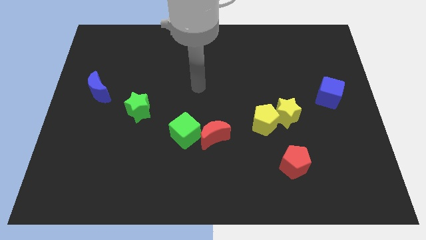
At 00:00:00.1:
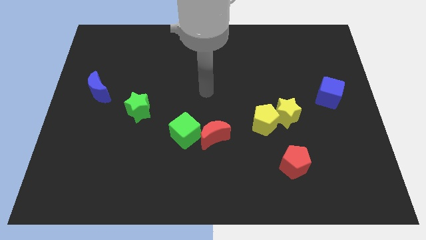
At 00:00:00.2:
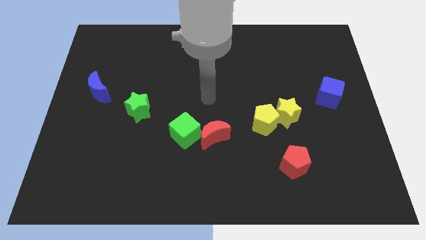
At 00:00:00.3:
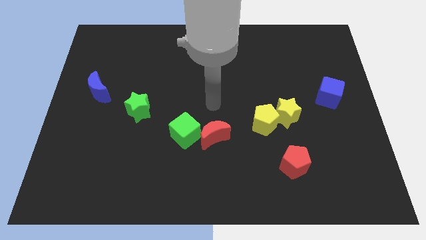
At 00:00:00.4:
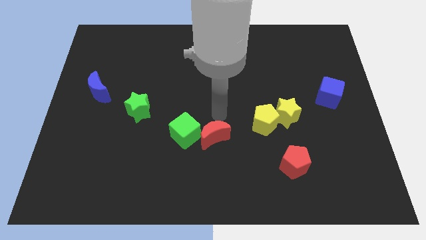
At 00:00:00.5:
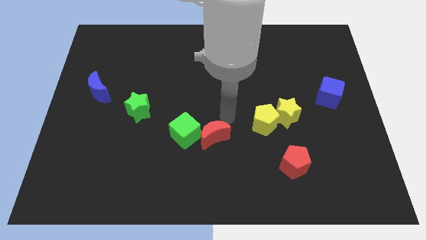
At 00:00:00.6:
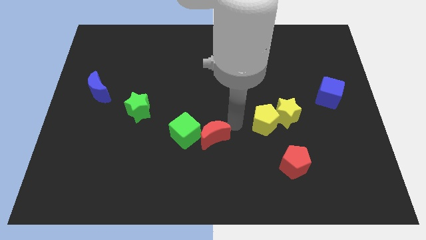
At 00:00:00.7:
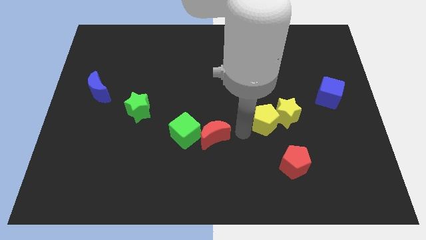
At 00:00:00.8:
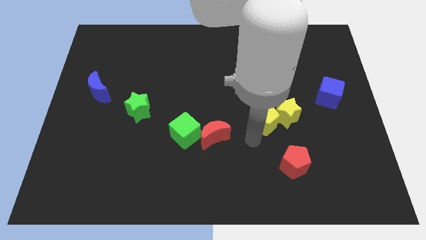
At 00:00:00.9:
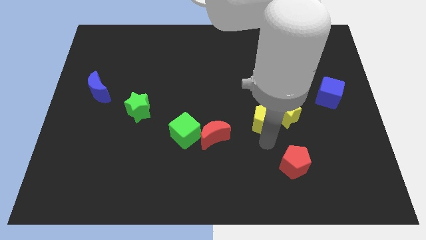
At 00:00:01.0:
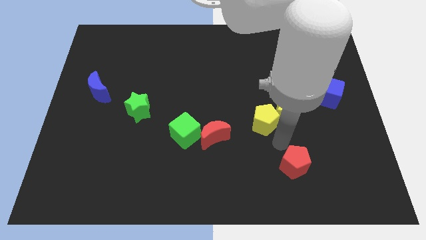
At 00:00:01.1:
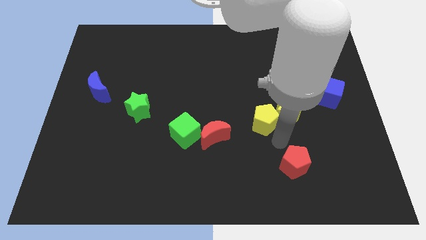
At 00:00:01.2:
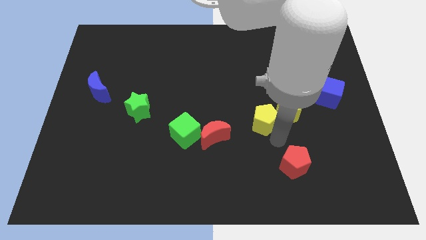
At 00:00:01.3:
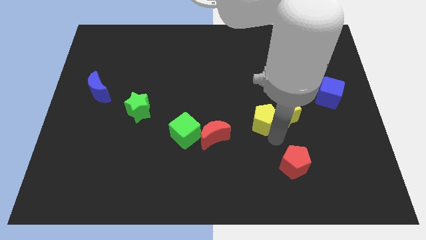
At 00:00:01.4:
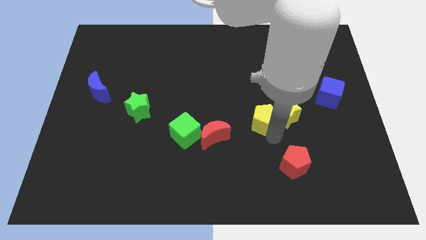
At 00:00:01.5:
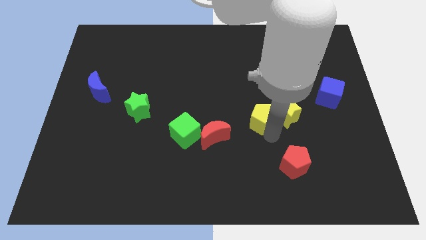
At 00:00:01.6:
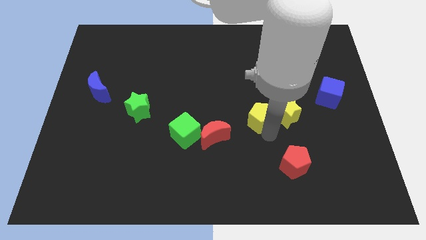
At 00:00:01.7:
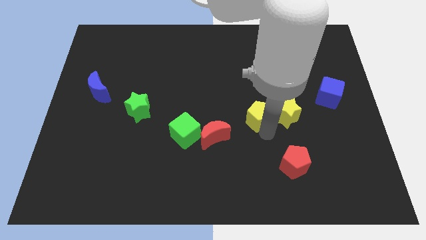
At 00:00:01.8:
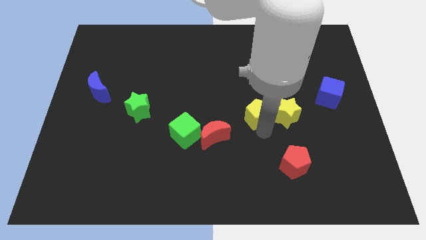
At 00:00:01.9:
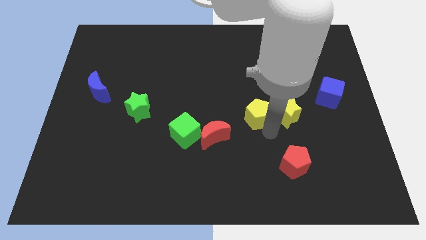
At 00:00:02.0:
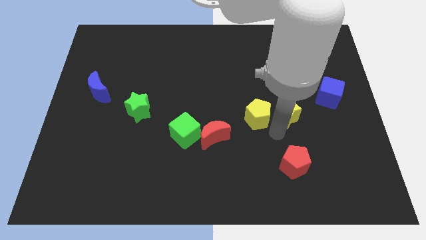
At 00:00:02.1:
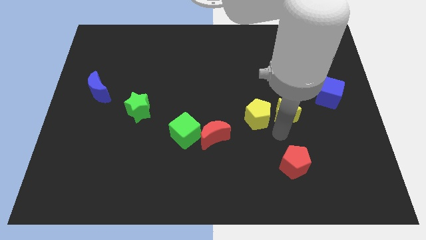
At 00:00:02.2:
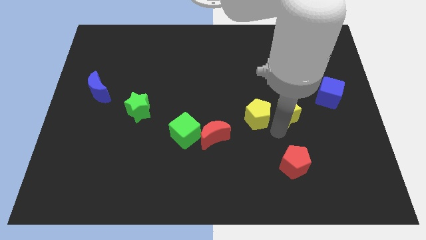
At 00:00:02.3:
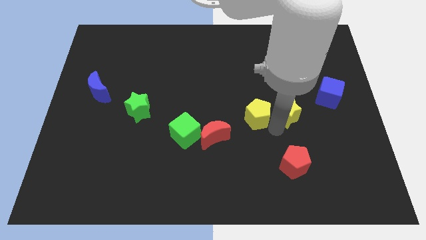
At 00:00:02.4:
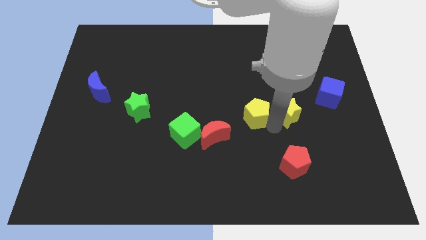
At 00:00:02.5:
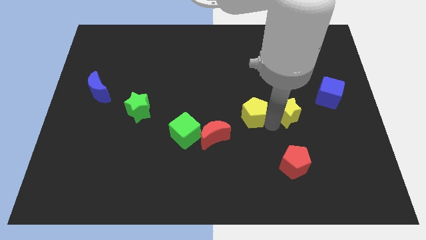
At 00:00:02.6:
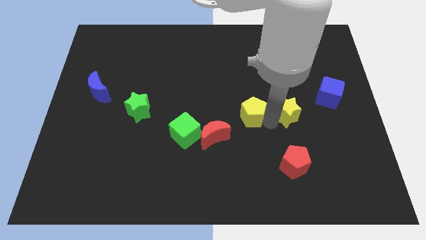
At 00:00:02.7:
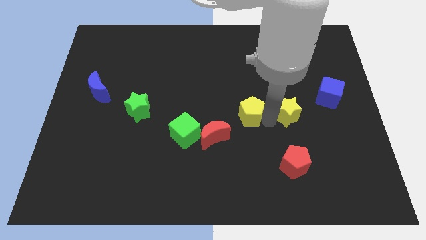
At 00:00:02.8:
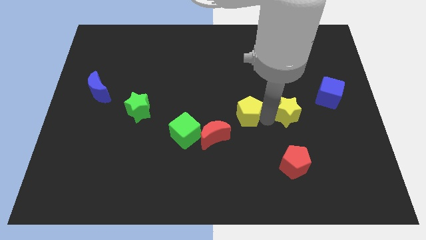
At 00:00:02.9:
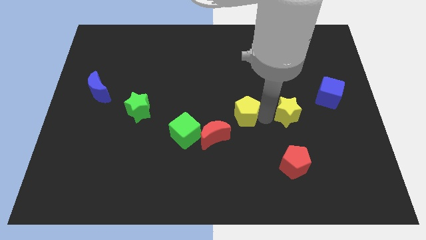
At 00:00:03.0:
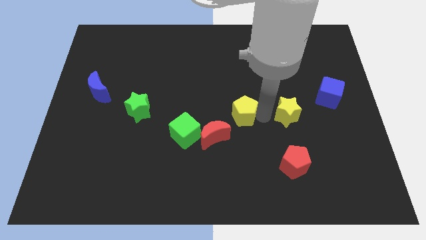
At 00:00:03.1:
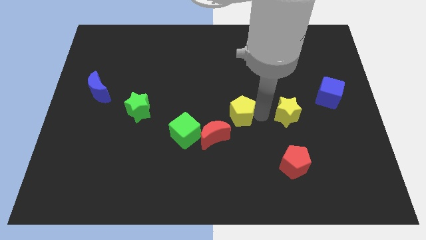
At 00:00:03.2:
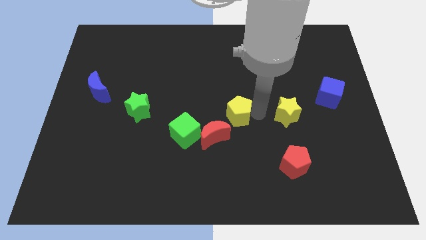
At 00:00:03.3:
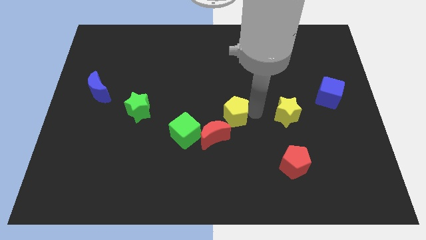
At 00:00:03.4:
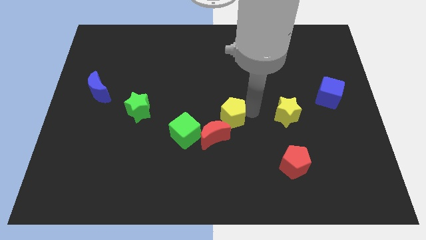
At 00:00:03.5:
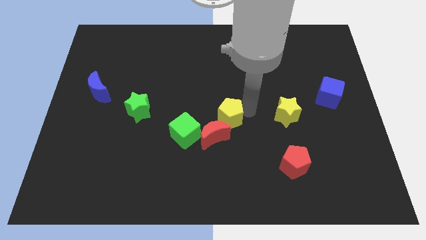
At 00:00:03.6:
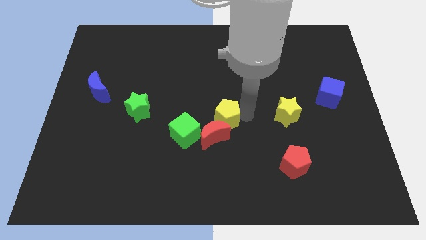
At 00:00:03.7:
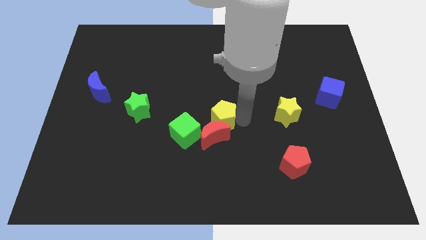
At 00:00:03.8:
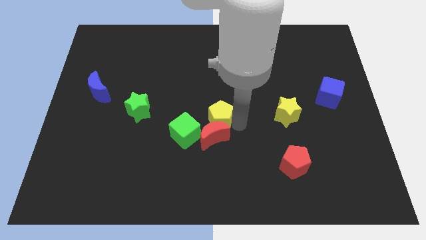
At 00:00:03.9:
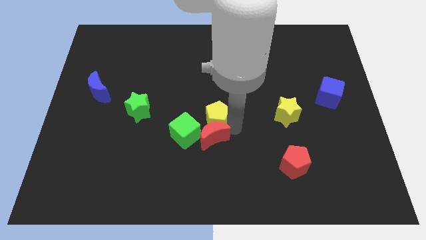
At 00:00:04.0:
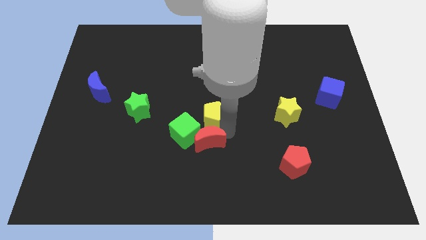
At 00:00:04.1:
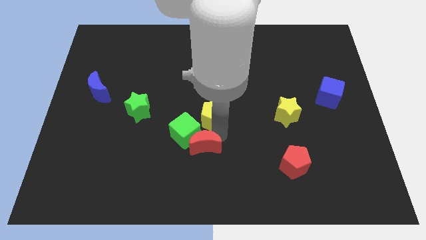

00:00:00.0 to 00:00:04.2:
slightly move the yellow pentagon diagonally up and to the left

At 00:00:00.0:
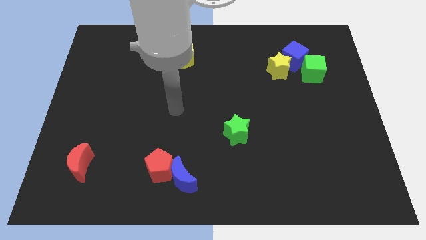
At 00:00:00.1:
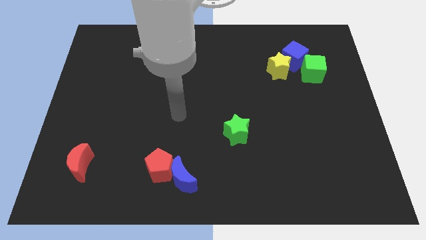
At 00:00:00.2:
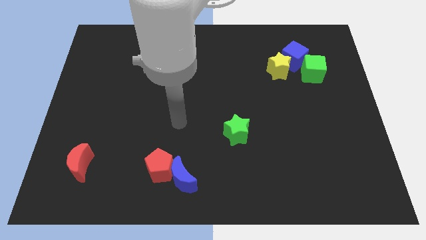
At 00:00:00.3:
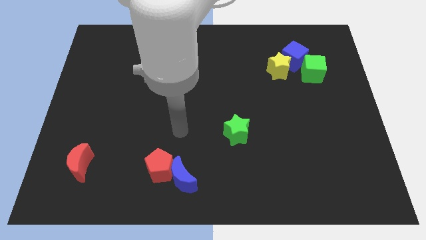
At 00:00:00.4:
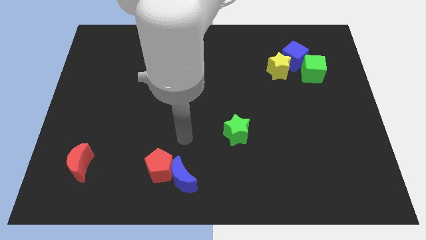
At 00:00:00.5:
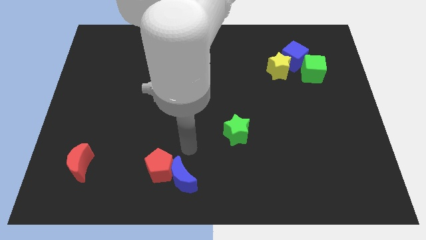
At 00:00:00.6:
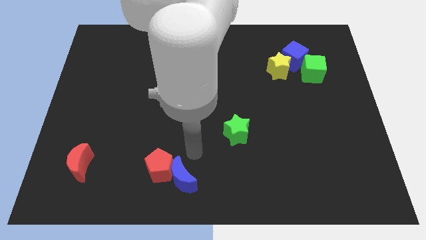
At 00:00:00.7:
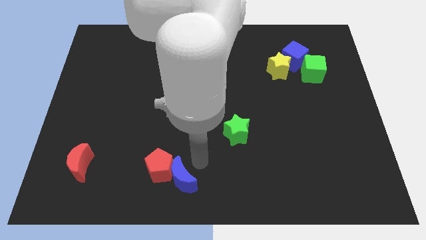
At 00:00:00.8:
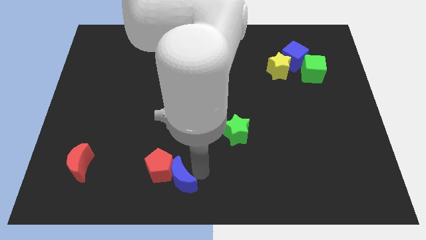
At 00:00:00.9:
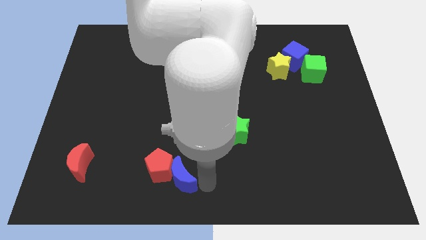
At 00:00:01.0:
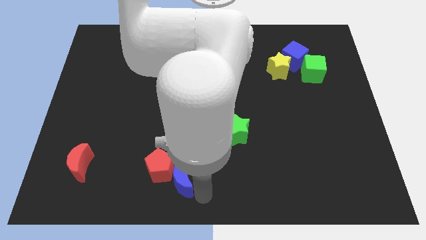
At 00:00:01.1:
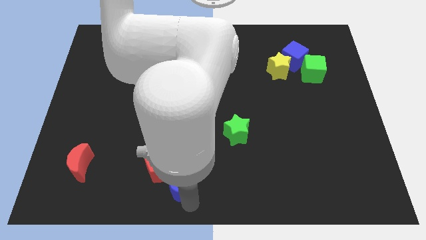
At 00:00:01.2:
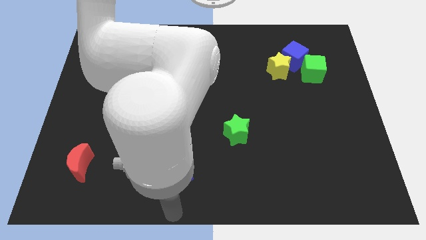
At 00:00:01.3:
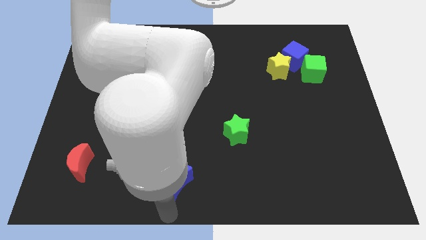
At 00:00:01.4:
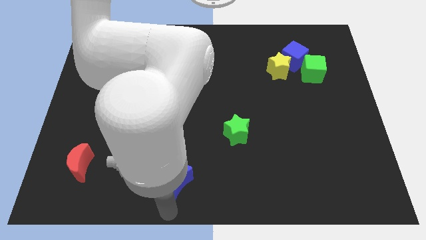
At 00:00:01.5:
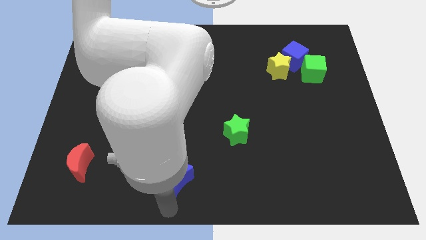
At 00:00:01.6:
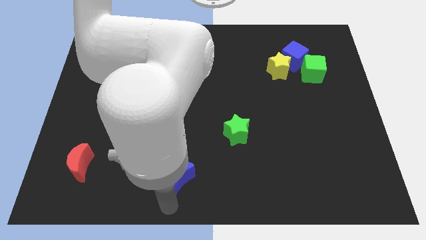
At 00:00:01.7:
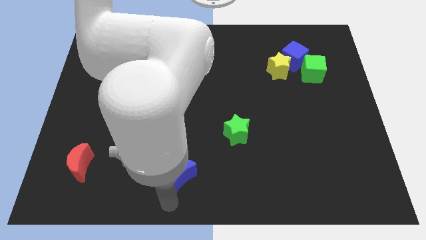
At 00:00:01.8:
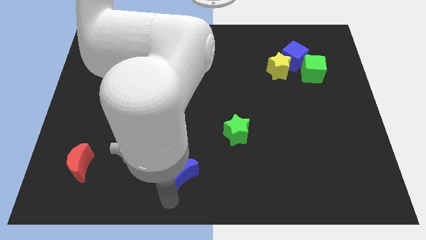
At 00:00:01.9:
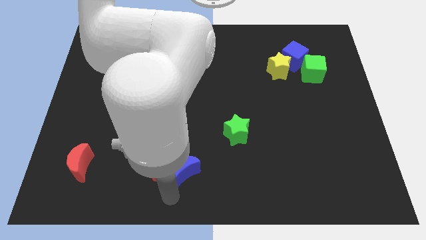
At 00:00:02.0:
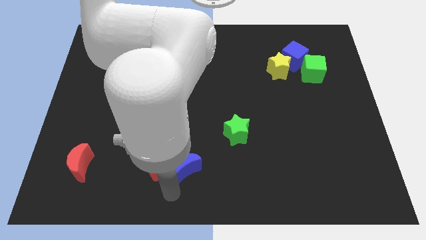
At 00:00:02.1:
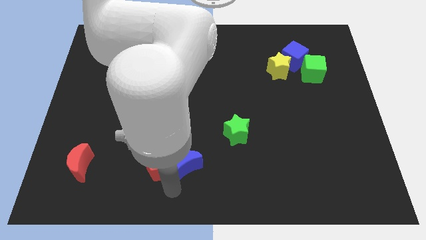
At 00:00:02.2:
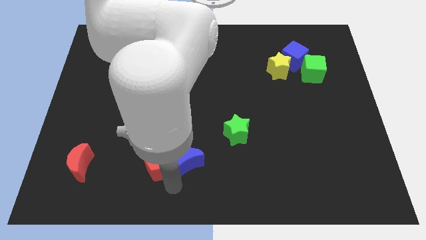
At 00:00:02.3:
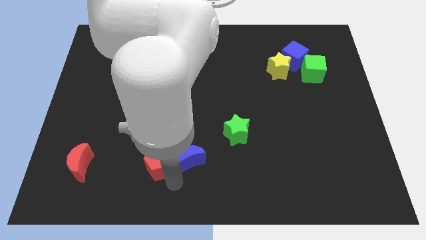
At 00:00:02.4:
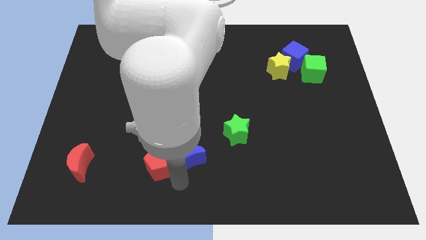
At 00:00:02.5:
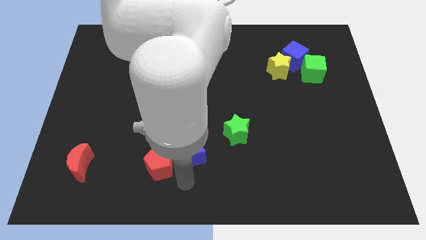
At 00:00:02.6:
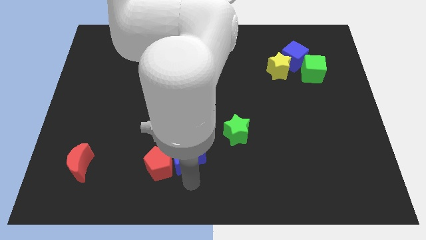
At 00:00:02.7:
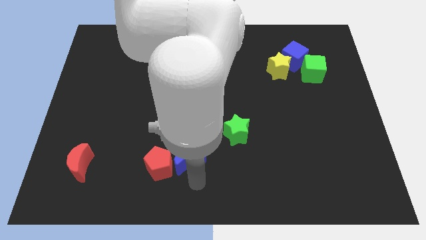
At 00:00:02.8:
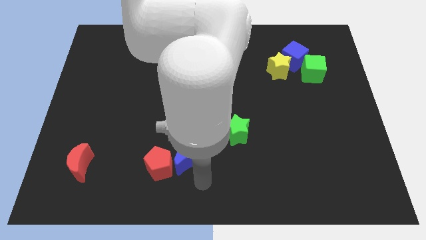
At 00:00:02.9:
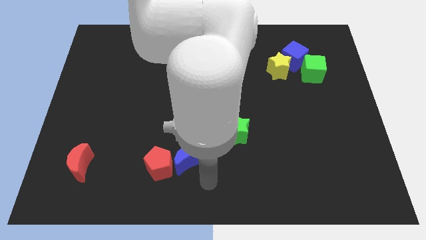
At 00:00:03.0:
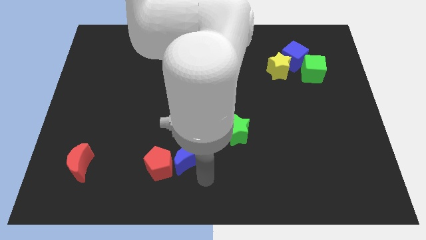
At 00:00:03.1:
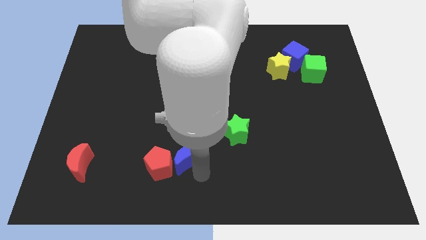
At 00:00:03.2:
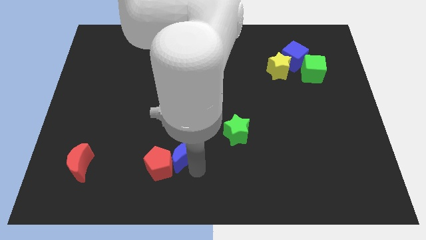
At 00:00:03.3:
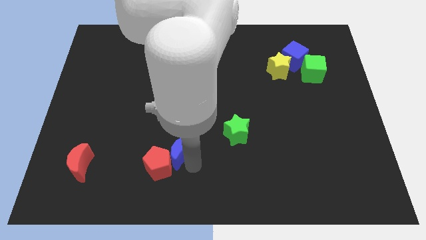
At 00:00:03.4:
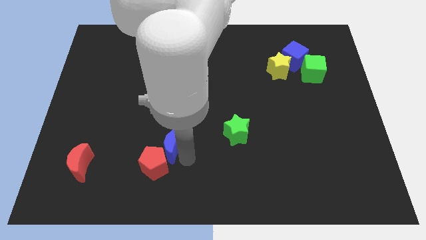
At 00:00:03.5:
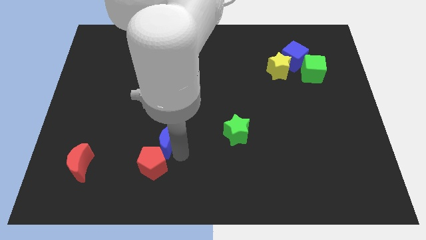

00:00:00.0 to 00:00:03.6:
move the blue moon slightly diagonally upwards and to the left

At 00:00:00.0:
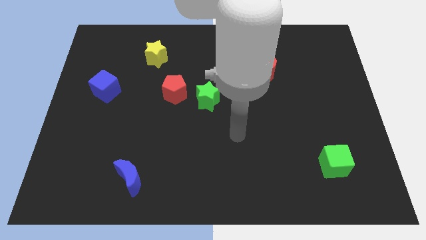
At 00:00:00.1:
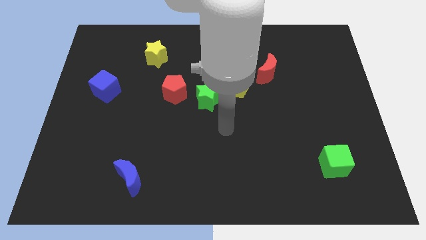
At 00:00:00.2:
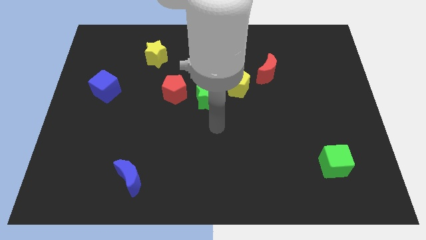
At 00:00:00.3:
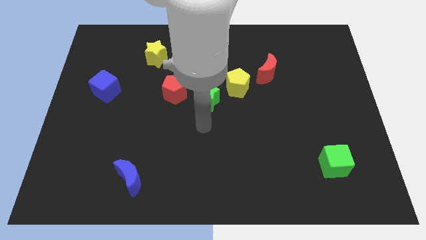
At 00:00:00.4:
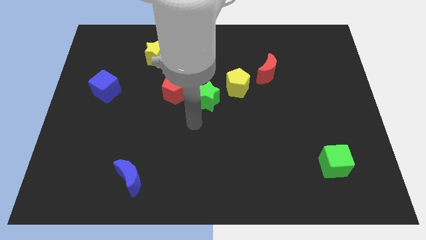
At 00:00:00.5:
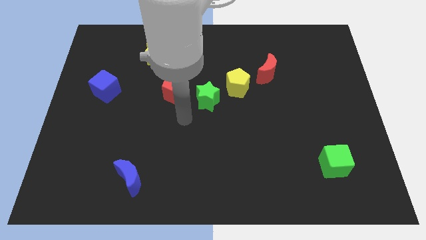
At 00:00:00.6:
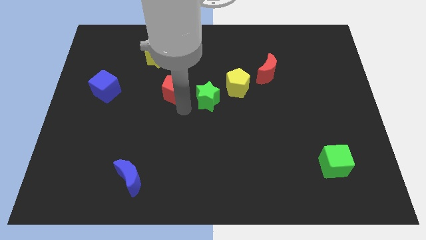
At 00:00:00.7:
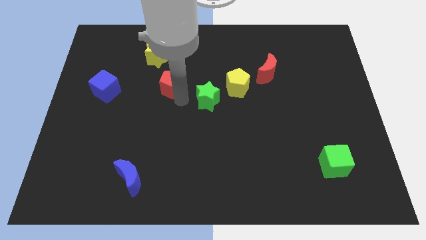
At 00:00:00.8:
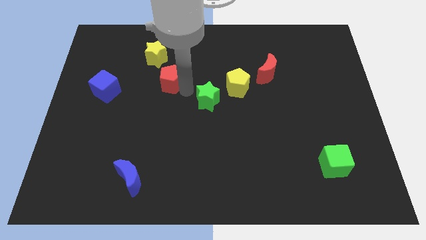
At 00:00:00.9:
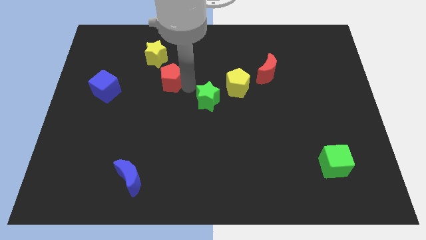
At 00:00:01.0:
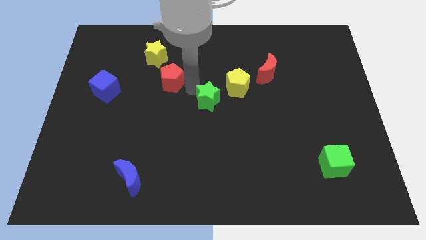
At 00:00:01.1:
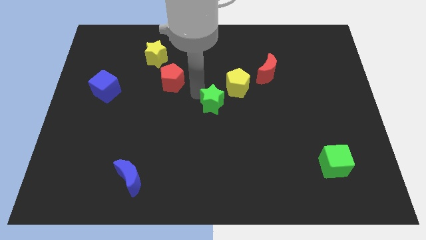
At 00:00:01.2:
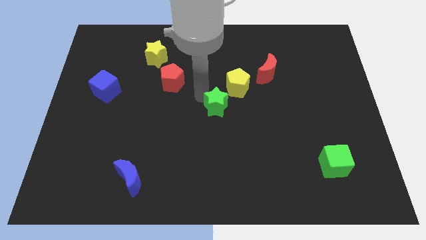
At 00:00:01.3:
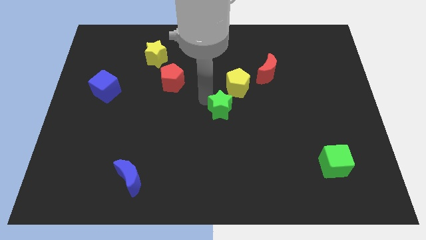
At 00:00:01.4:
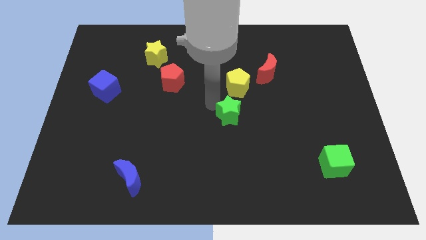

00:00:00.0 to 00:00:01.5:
push the green star downwards and to the right a little bit
